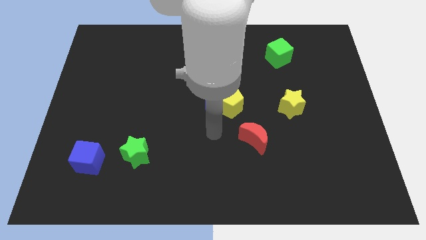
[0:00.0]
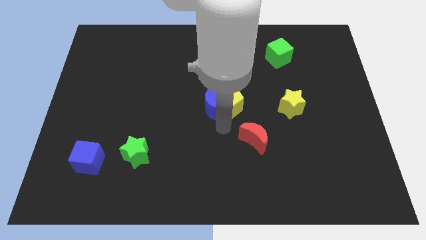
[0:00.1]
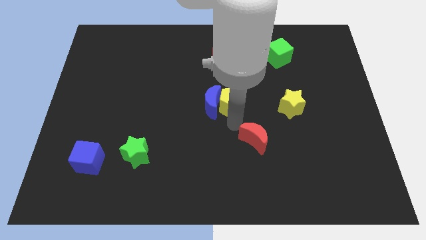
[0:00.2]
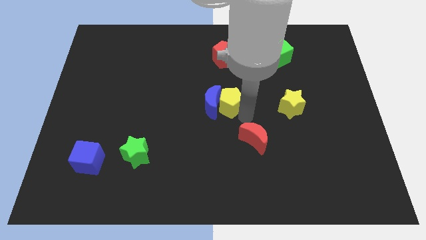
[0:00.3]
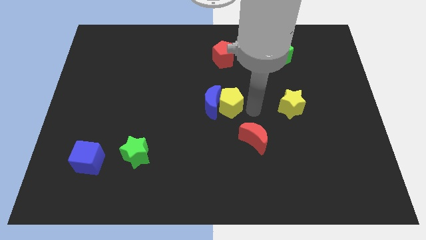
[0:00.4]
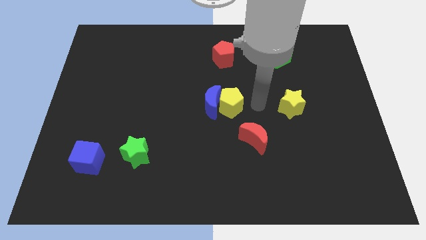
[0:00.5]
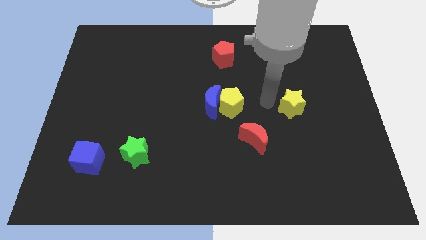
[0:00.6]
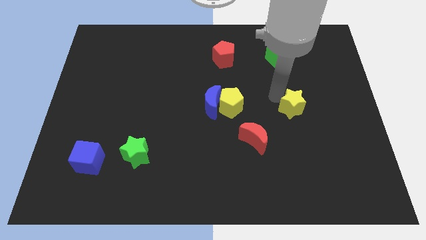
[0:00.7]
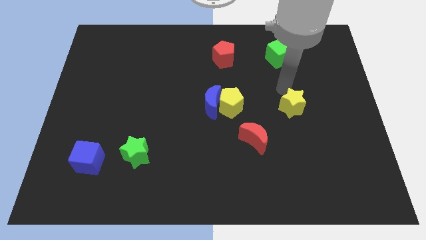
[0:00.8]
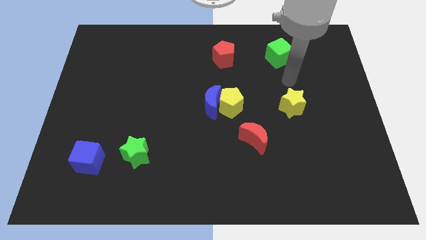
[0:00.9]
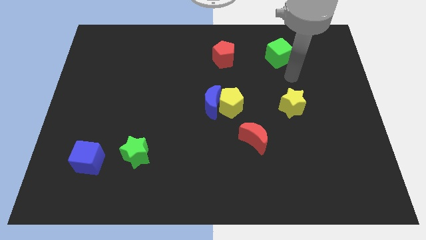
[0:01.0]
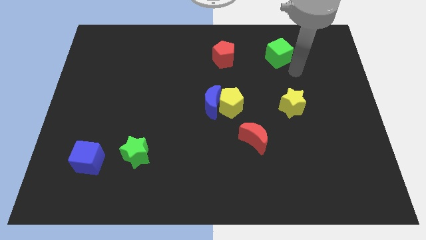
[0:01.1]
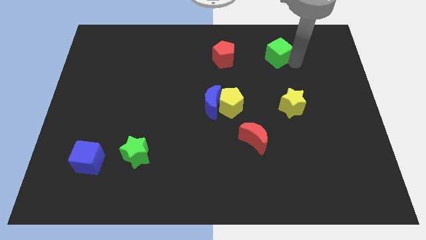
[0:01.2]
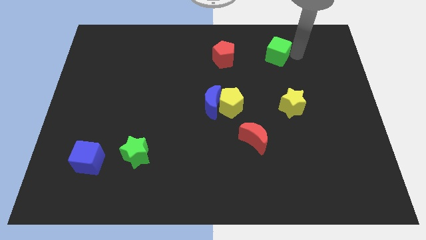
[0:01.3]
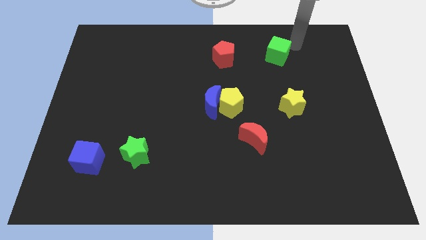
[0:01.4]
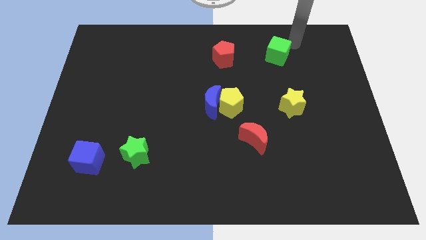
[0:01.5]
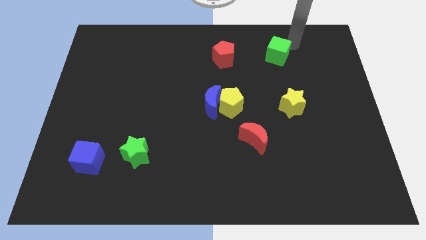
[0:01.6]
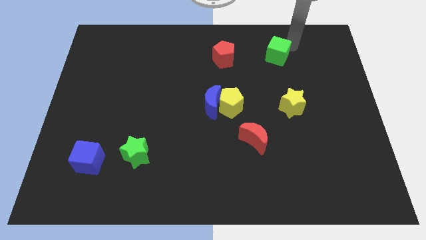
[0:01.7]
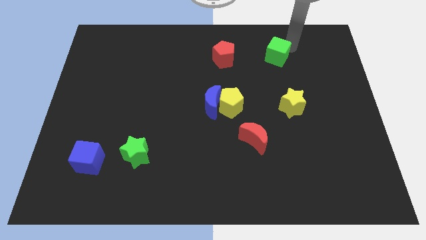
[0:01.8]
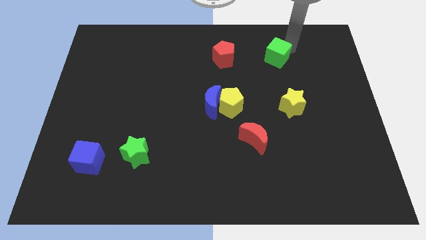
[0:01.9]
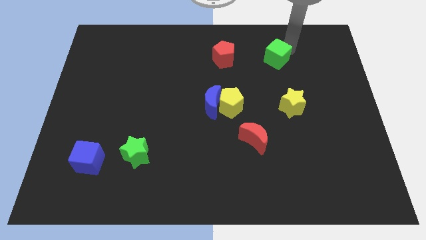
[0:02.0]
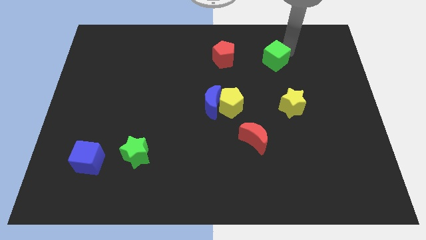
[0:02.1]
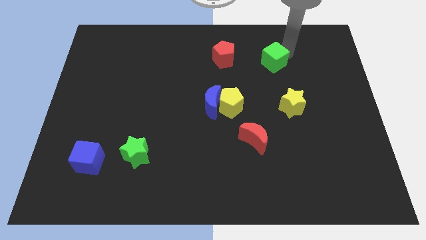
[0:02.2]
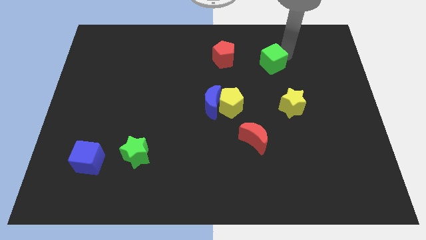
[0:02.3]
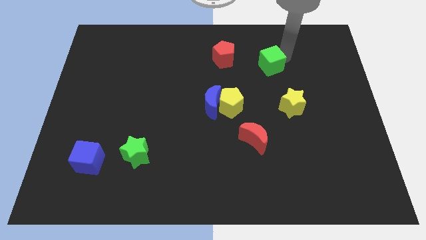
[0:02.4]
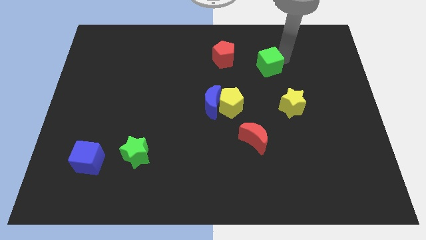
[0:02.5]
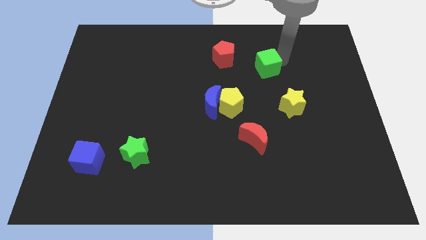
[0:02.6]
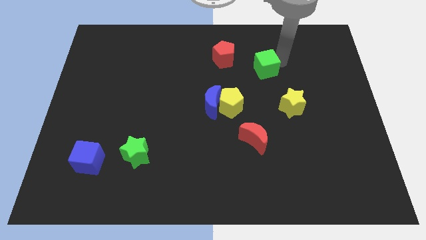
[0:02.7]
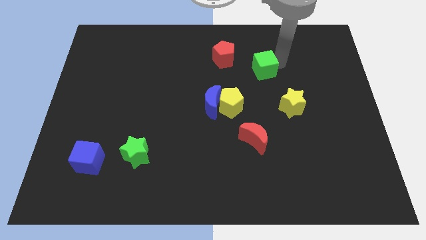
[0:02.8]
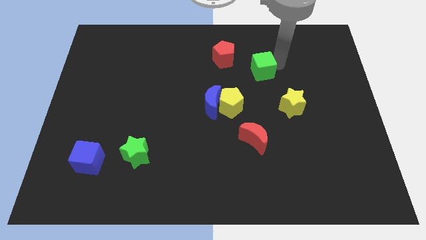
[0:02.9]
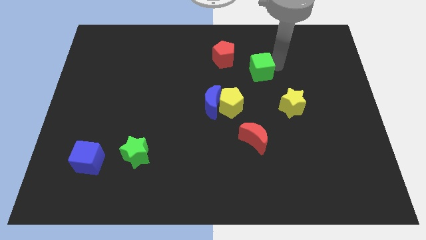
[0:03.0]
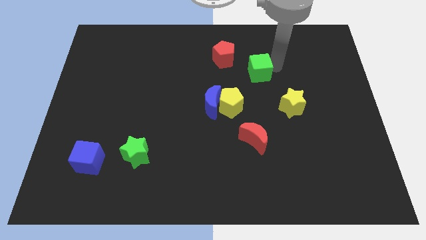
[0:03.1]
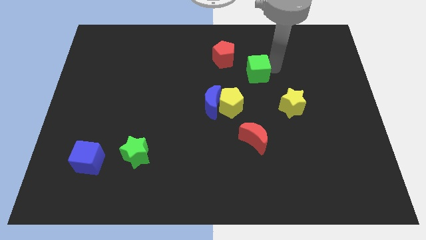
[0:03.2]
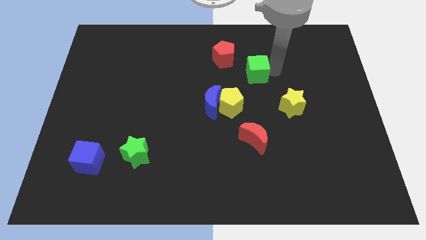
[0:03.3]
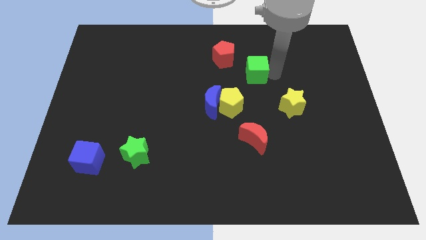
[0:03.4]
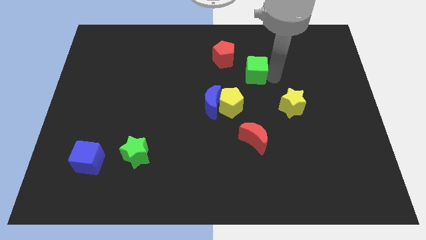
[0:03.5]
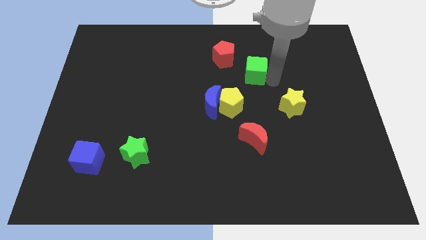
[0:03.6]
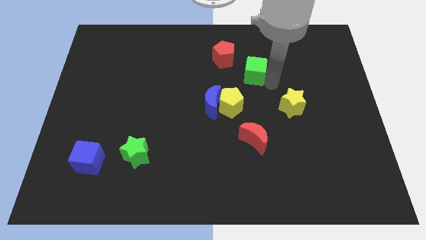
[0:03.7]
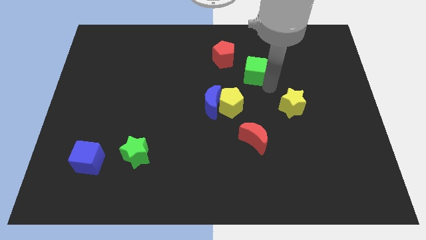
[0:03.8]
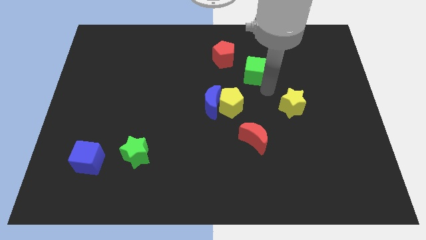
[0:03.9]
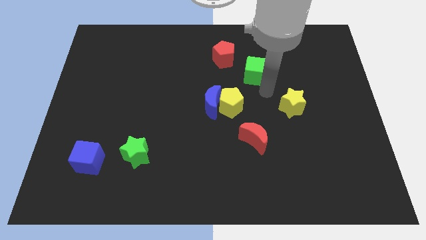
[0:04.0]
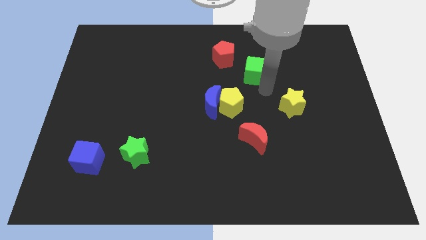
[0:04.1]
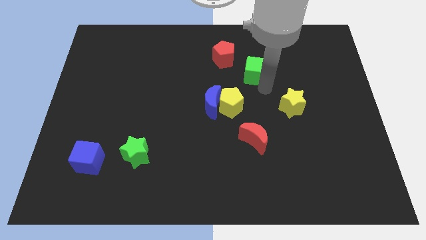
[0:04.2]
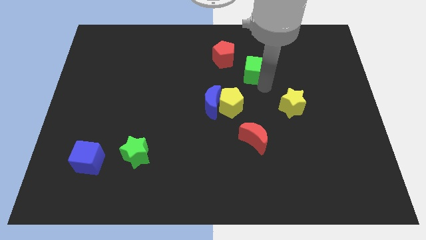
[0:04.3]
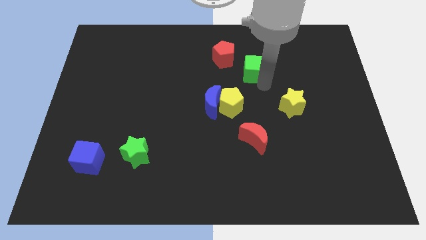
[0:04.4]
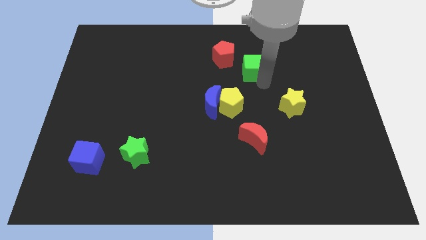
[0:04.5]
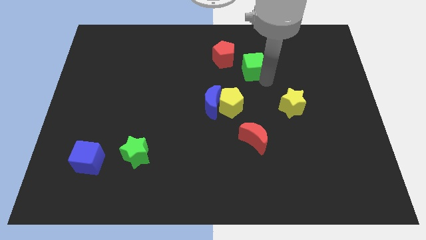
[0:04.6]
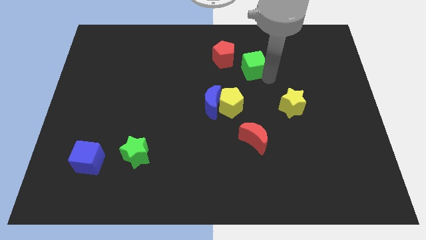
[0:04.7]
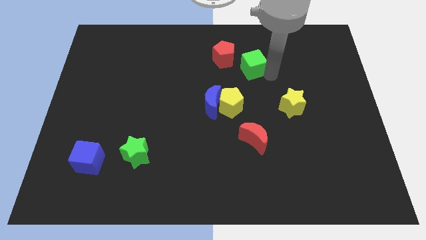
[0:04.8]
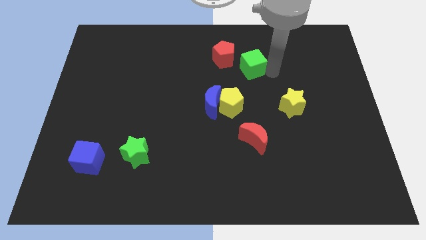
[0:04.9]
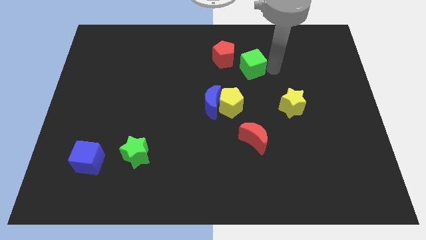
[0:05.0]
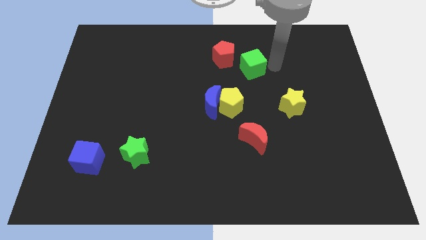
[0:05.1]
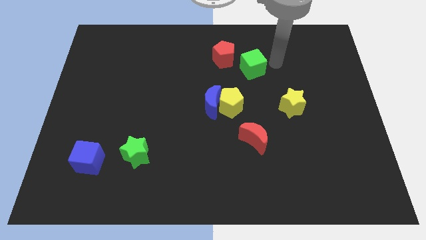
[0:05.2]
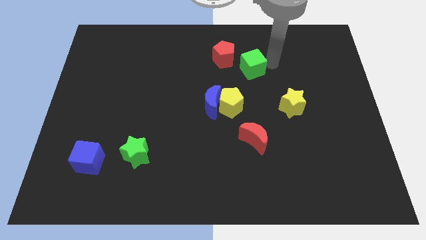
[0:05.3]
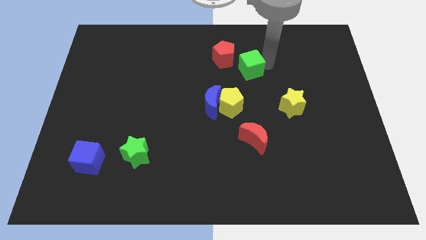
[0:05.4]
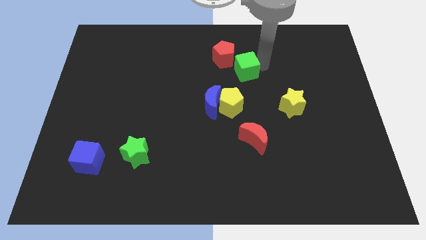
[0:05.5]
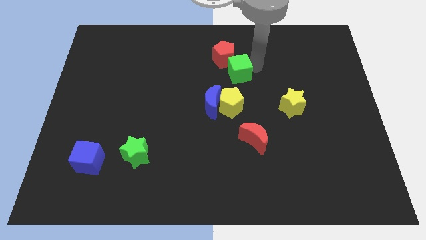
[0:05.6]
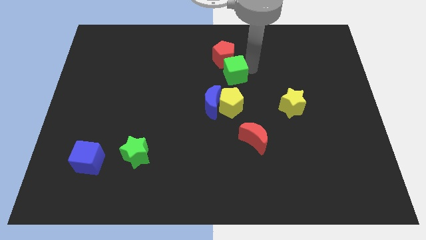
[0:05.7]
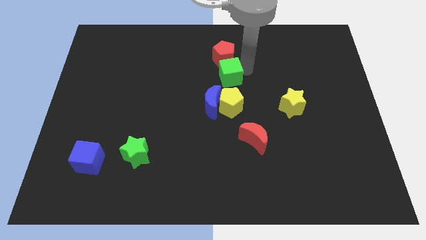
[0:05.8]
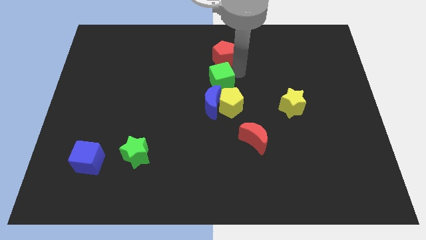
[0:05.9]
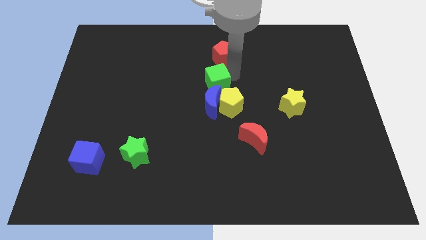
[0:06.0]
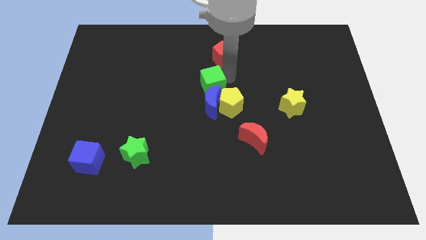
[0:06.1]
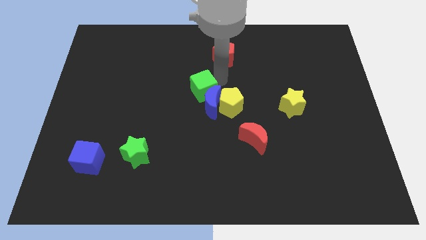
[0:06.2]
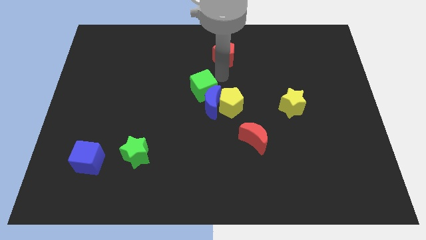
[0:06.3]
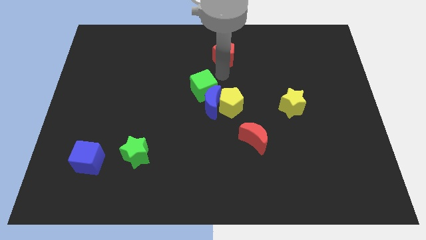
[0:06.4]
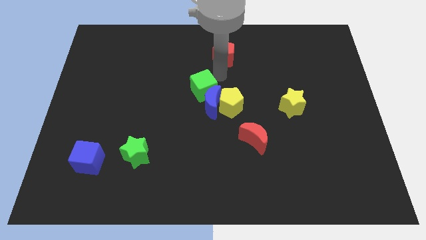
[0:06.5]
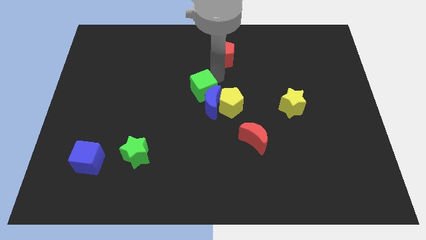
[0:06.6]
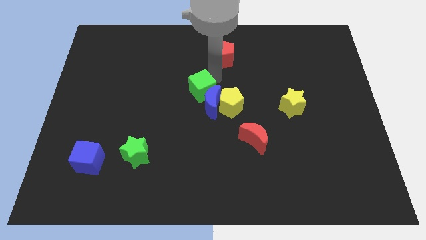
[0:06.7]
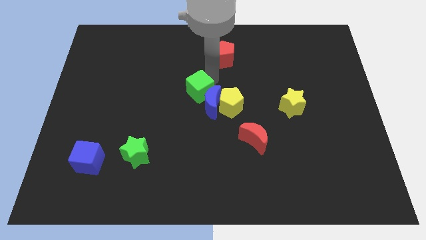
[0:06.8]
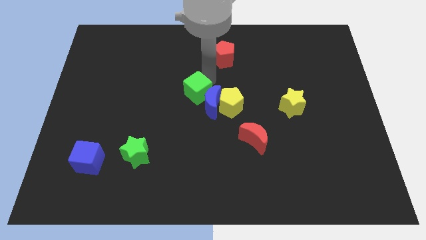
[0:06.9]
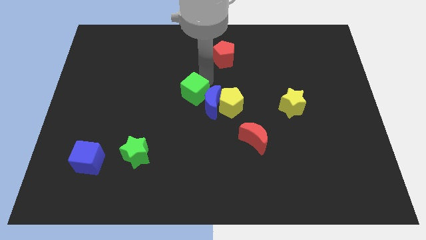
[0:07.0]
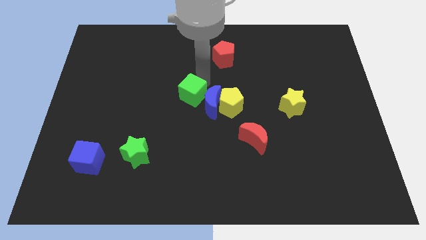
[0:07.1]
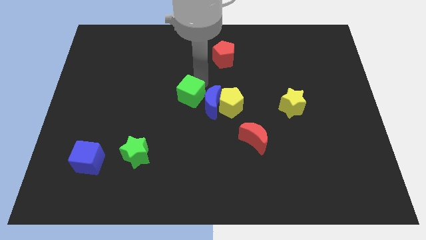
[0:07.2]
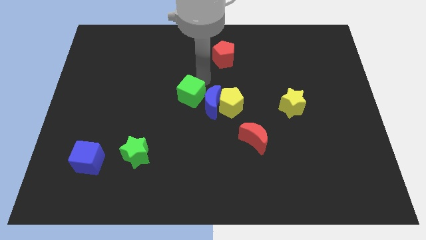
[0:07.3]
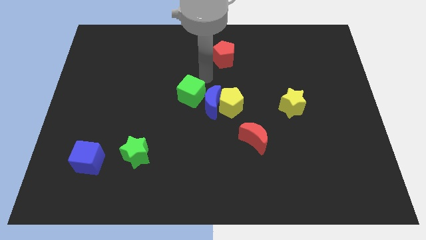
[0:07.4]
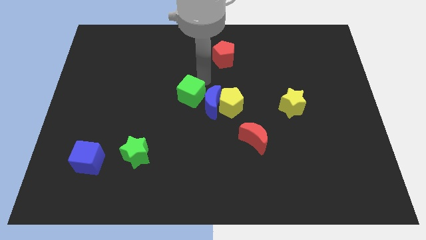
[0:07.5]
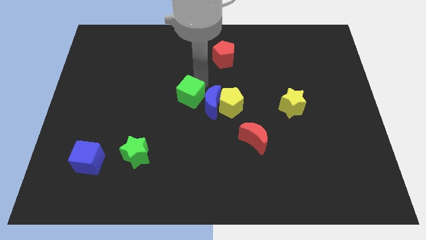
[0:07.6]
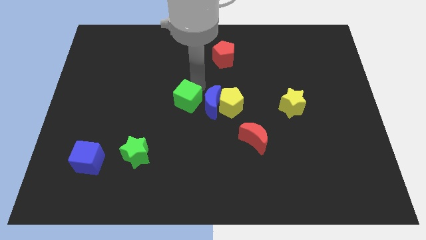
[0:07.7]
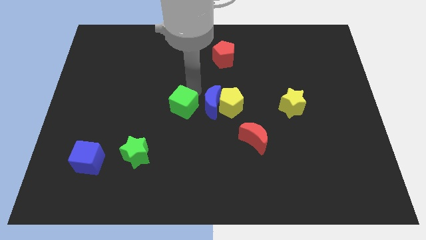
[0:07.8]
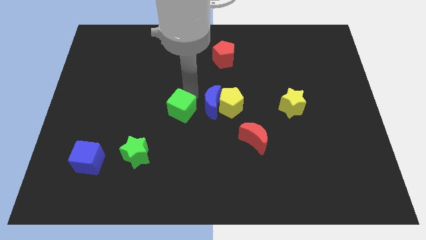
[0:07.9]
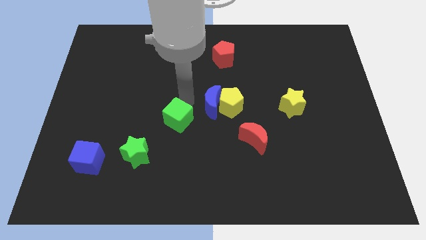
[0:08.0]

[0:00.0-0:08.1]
push the green cube to the top right side of the green star
